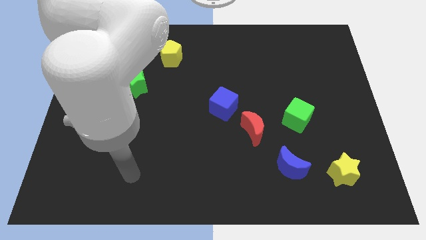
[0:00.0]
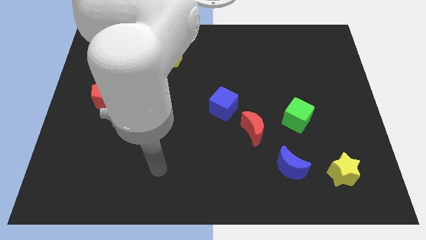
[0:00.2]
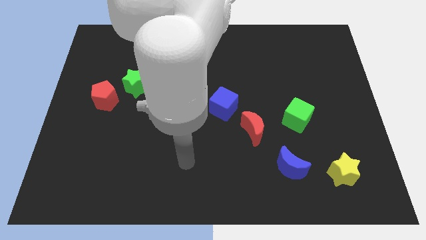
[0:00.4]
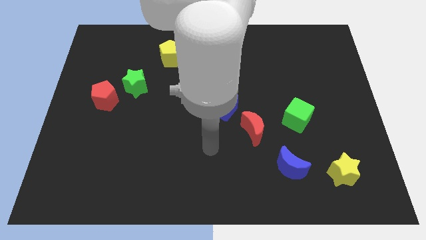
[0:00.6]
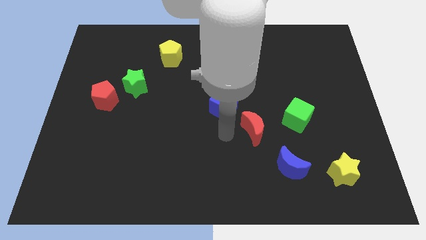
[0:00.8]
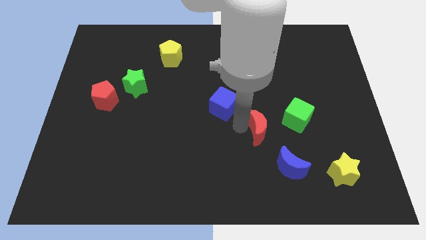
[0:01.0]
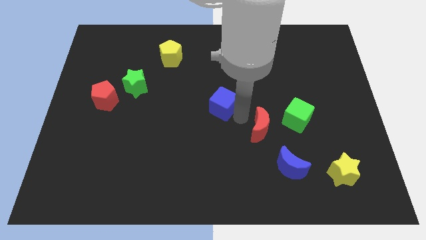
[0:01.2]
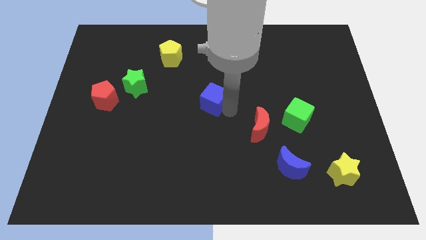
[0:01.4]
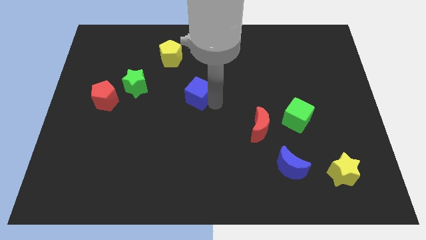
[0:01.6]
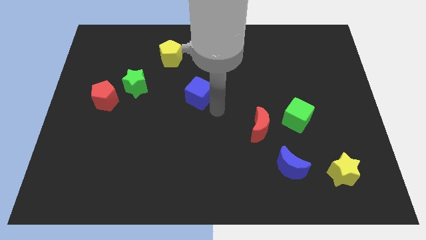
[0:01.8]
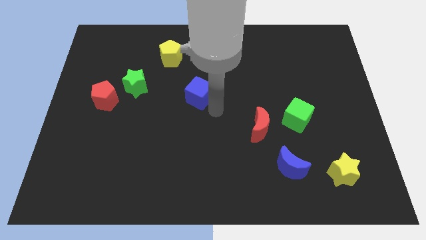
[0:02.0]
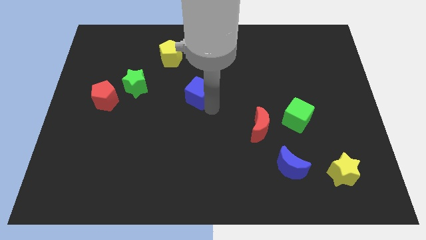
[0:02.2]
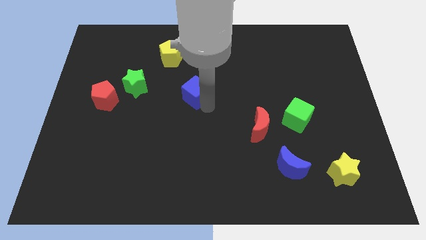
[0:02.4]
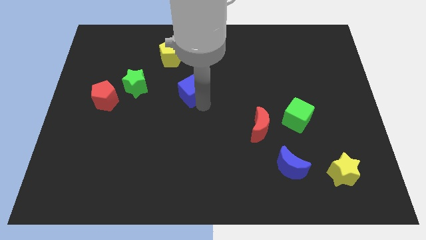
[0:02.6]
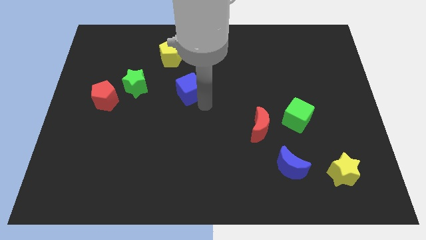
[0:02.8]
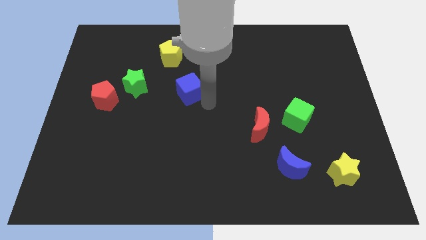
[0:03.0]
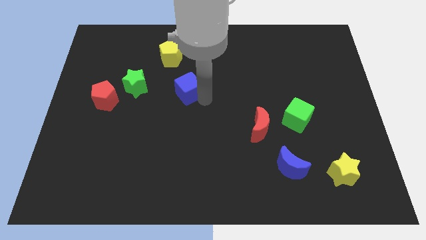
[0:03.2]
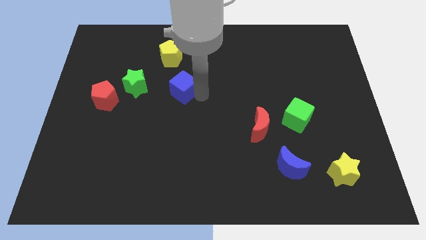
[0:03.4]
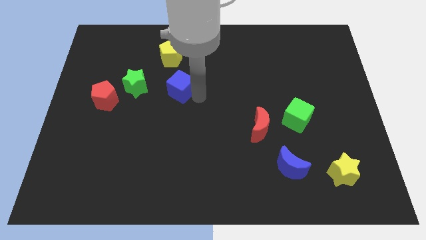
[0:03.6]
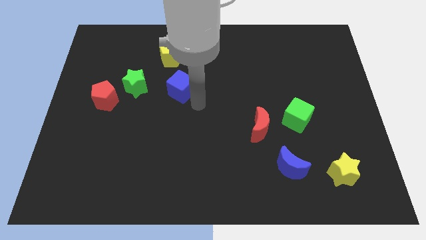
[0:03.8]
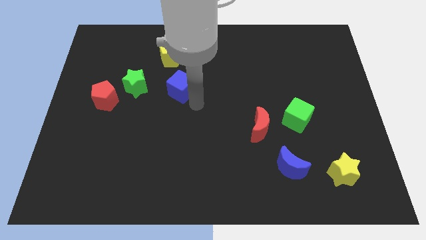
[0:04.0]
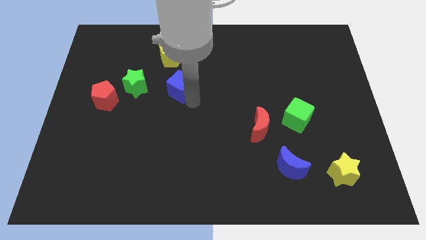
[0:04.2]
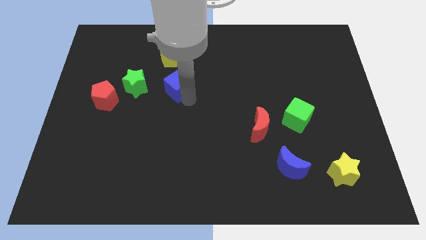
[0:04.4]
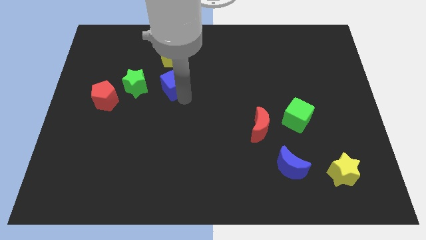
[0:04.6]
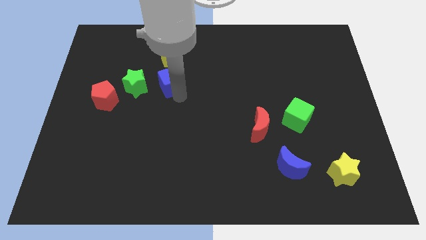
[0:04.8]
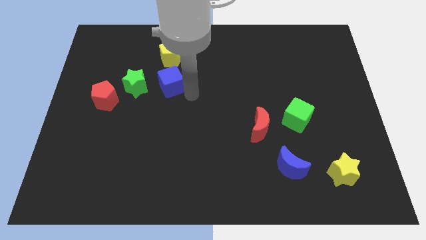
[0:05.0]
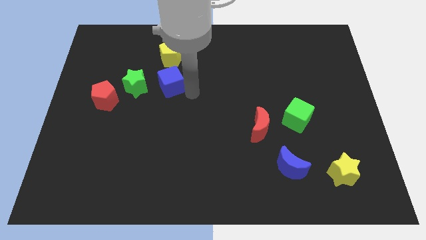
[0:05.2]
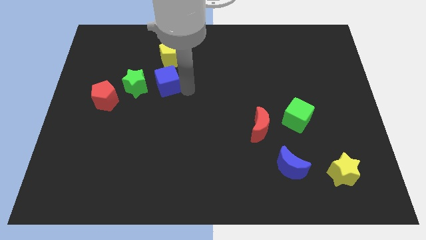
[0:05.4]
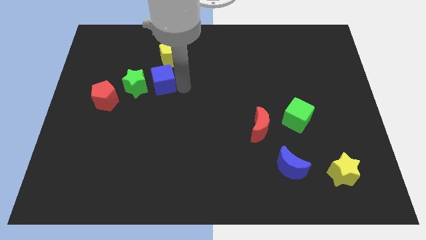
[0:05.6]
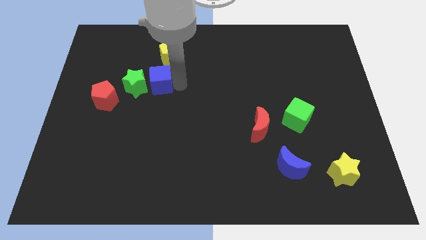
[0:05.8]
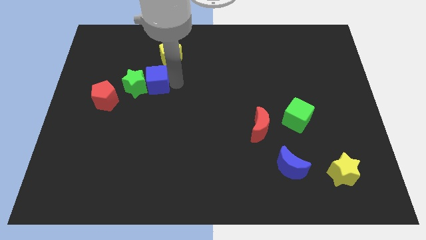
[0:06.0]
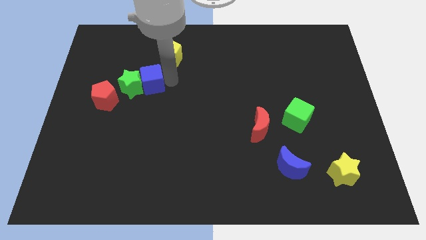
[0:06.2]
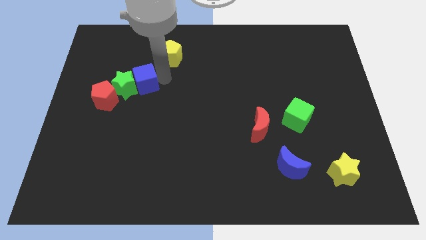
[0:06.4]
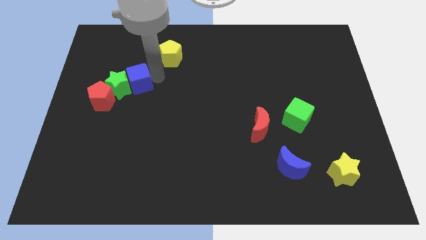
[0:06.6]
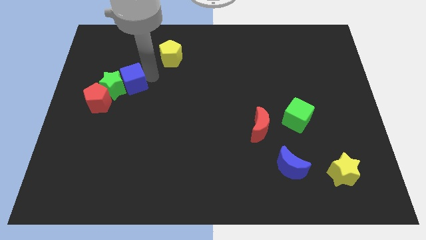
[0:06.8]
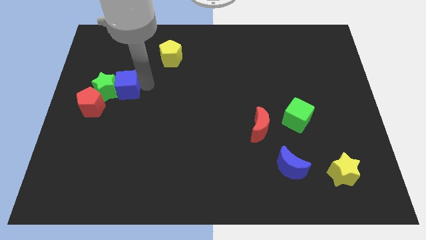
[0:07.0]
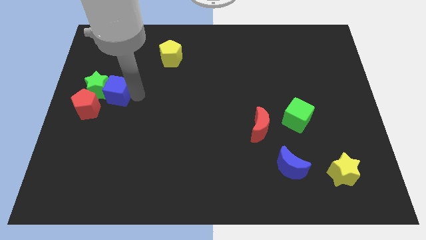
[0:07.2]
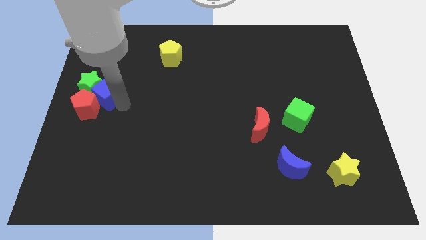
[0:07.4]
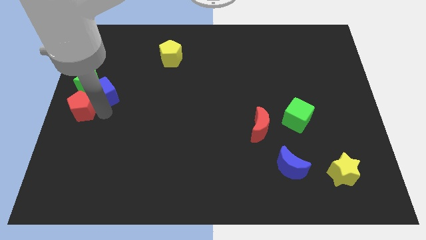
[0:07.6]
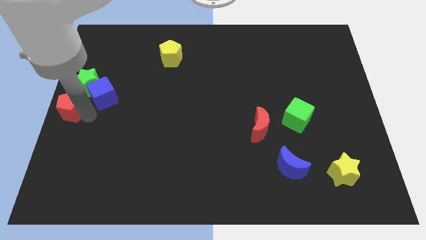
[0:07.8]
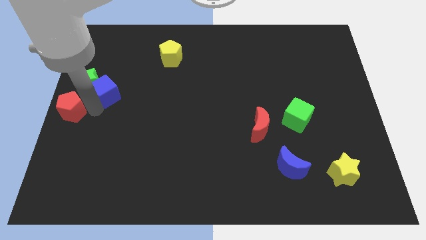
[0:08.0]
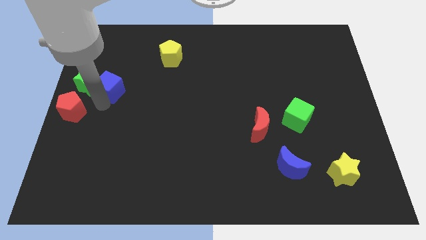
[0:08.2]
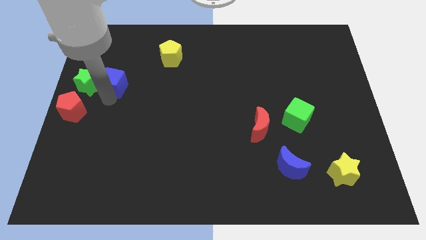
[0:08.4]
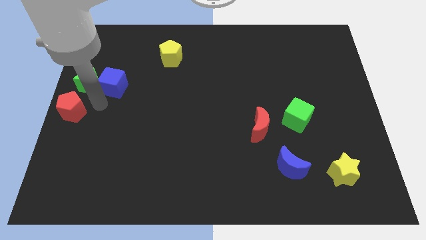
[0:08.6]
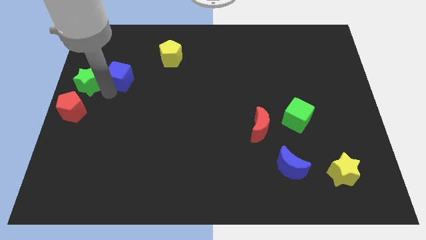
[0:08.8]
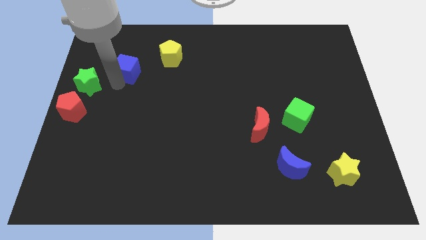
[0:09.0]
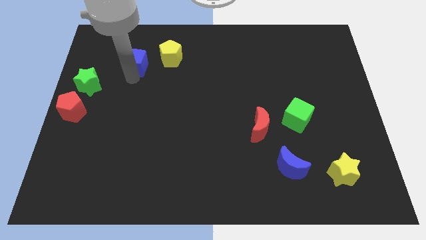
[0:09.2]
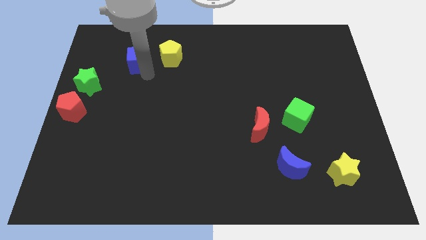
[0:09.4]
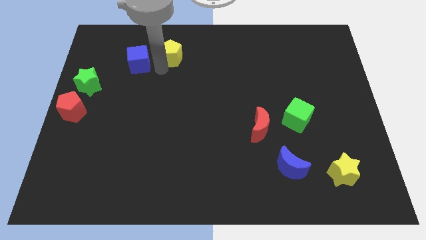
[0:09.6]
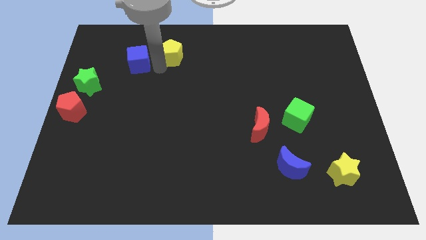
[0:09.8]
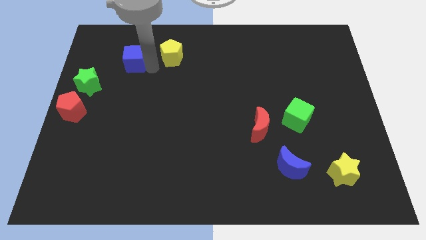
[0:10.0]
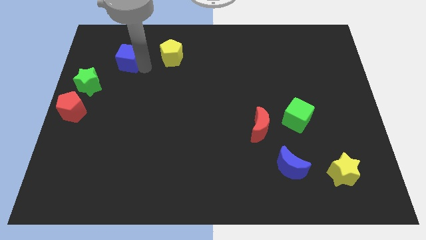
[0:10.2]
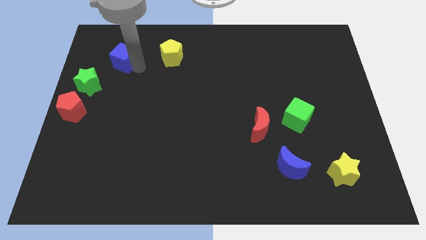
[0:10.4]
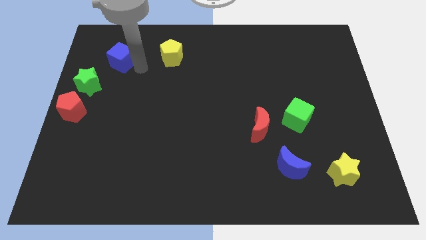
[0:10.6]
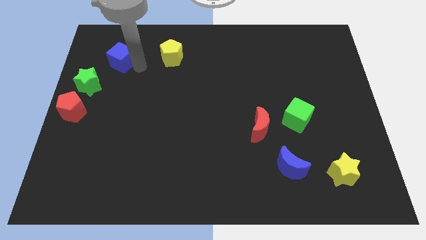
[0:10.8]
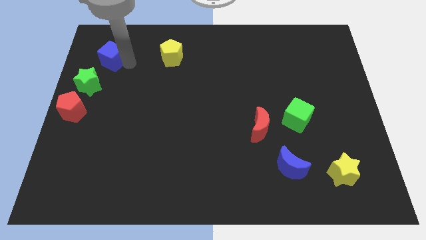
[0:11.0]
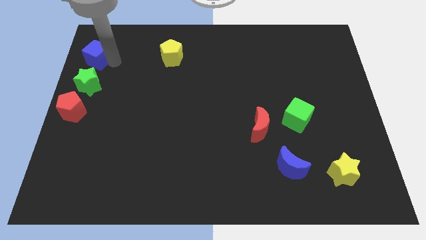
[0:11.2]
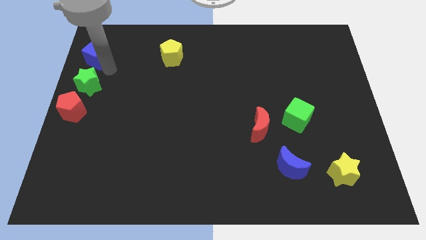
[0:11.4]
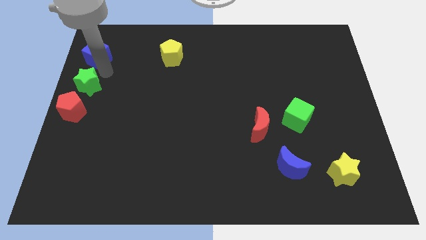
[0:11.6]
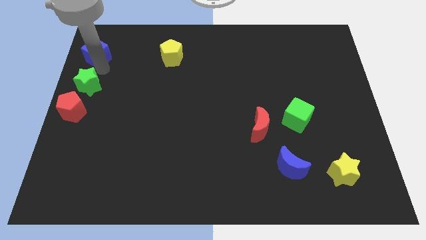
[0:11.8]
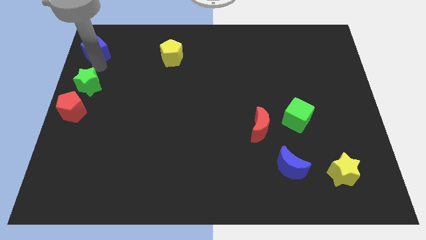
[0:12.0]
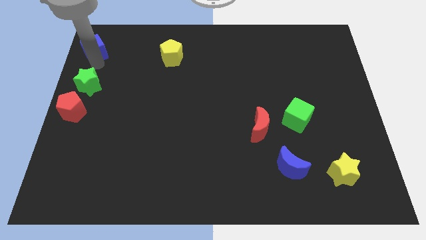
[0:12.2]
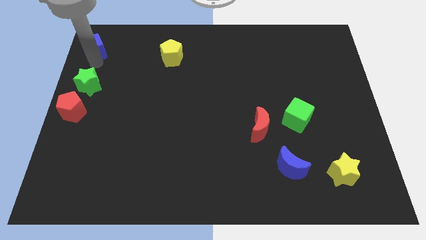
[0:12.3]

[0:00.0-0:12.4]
put the blue cube to the upper left corner
